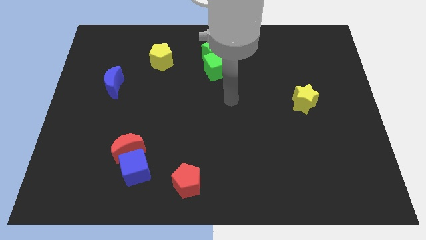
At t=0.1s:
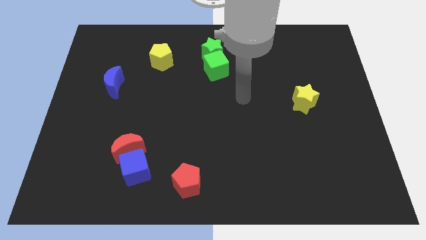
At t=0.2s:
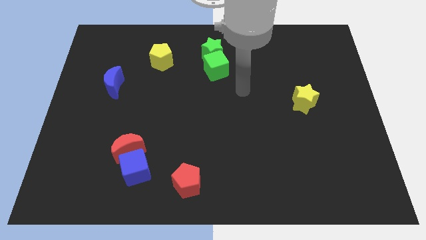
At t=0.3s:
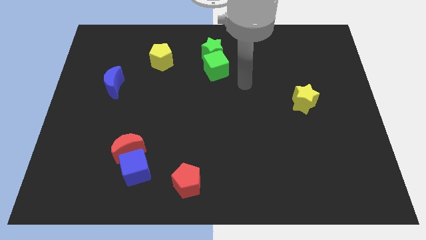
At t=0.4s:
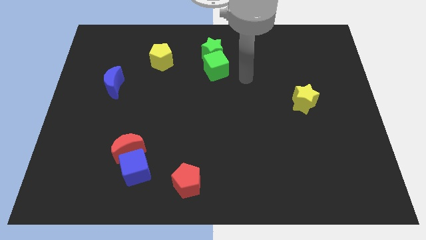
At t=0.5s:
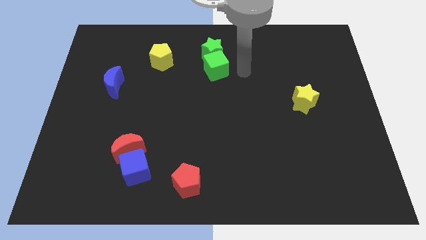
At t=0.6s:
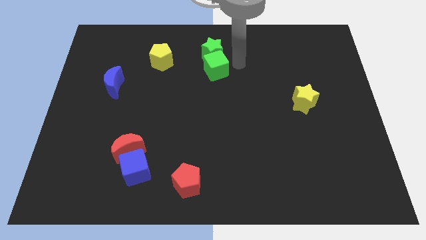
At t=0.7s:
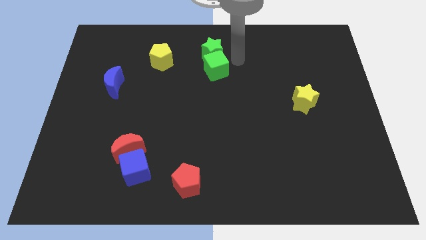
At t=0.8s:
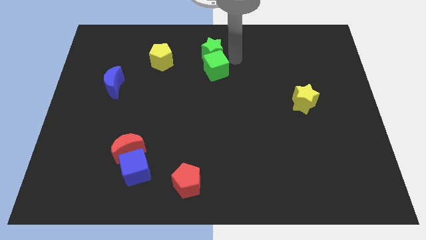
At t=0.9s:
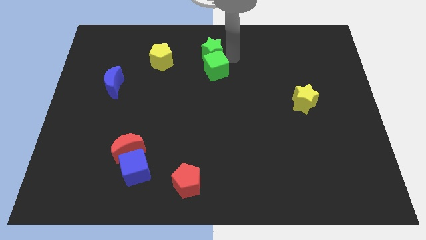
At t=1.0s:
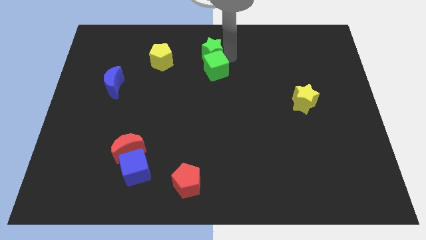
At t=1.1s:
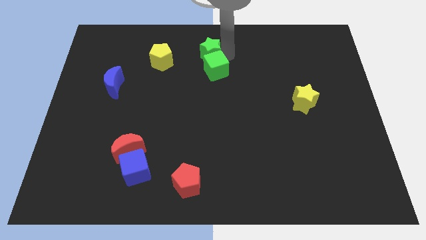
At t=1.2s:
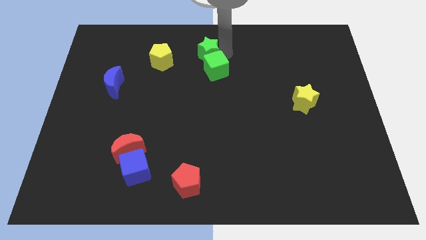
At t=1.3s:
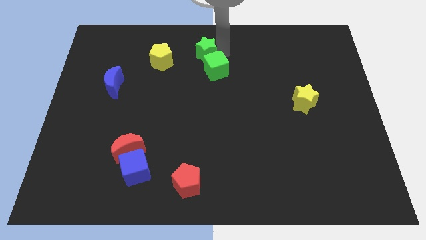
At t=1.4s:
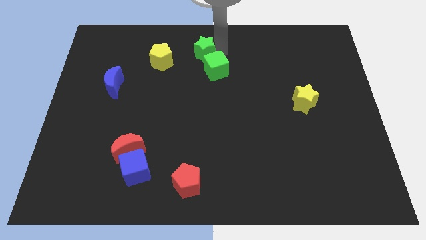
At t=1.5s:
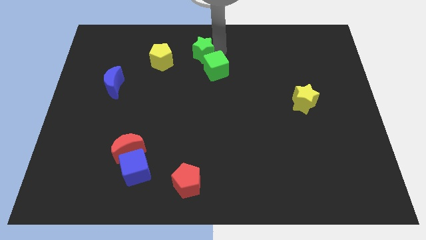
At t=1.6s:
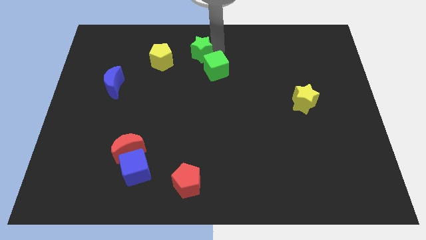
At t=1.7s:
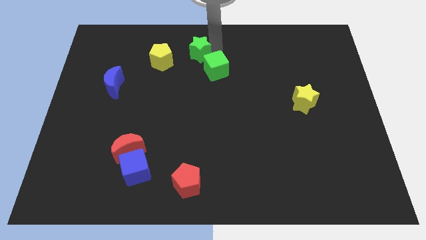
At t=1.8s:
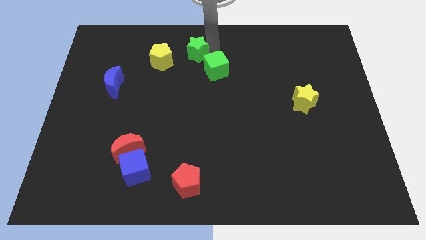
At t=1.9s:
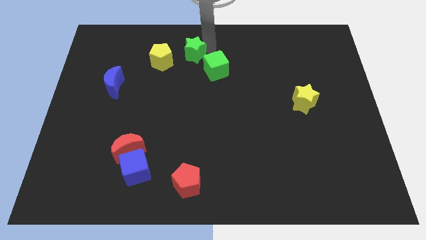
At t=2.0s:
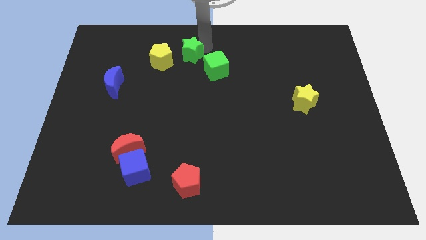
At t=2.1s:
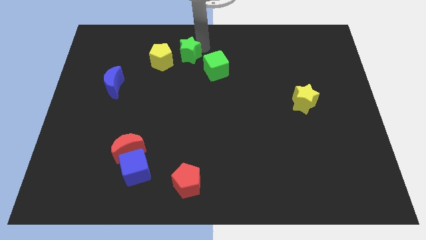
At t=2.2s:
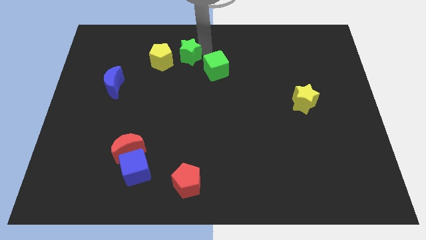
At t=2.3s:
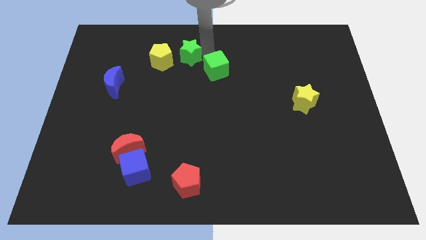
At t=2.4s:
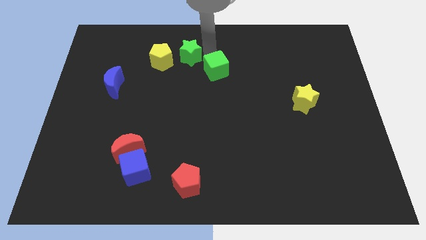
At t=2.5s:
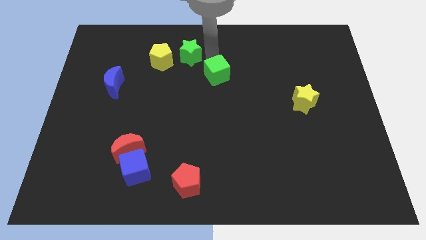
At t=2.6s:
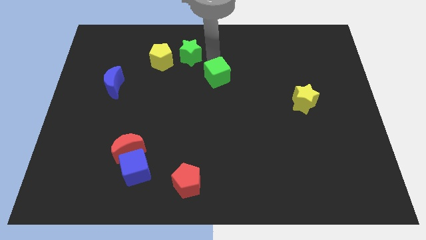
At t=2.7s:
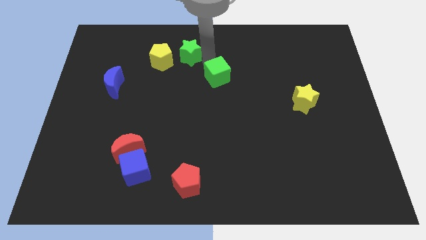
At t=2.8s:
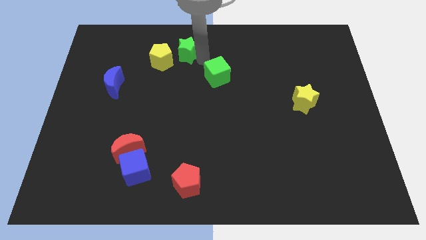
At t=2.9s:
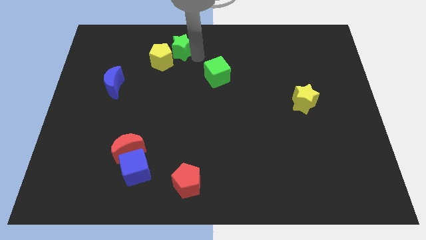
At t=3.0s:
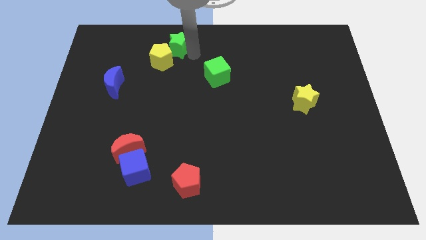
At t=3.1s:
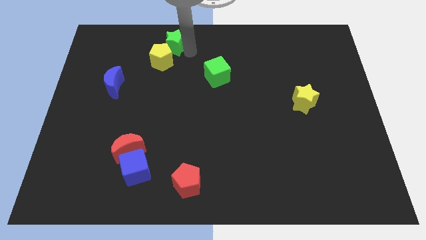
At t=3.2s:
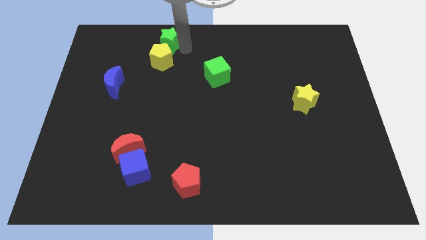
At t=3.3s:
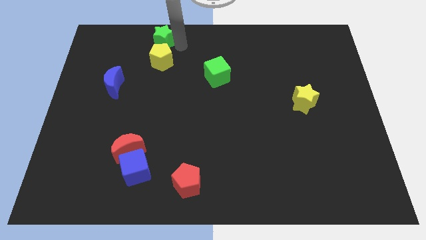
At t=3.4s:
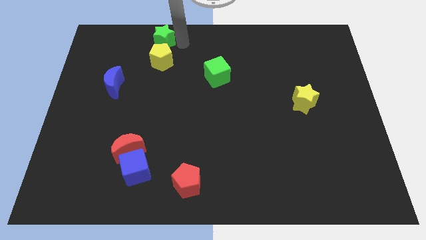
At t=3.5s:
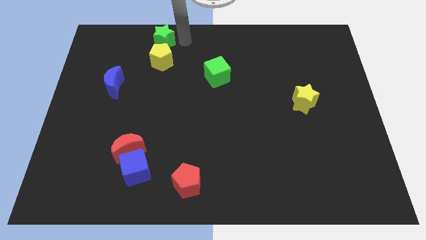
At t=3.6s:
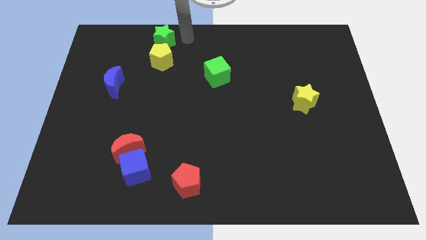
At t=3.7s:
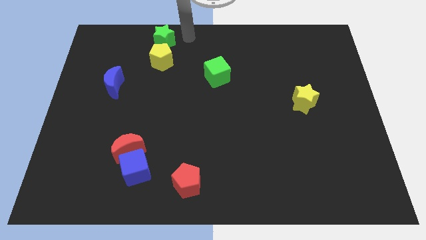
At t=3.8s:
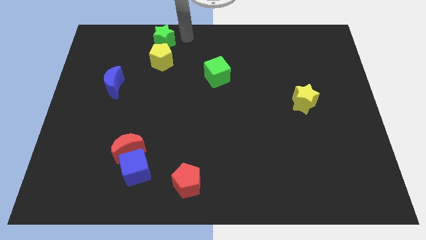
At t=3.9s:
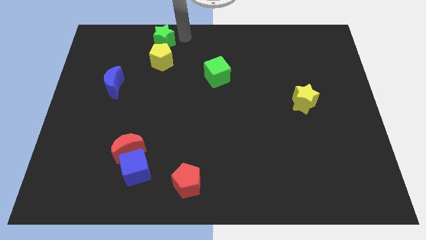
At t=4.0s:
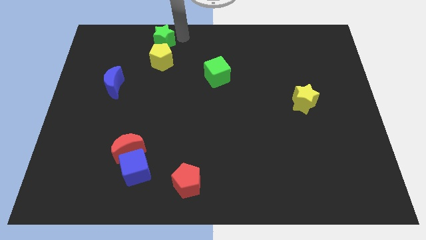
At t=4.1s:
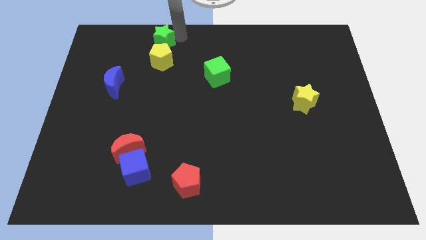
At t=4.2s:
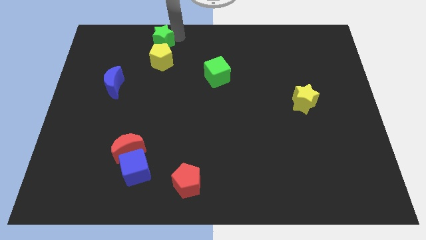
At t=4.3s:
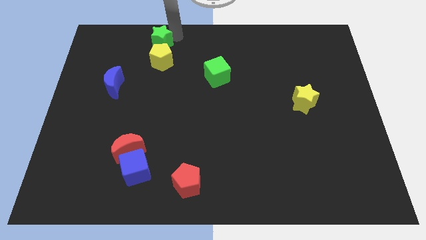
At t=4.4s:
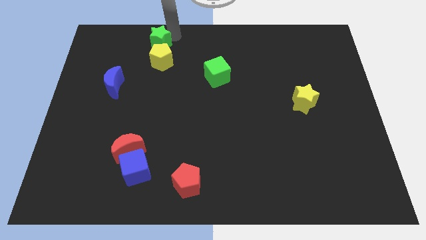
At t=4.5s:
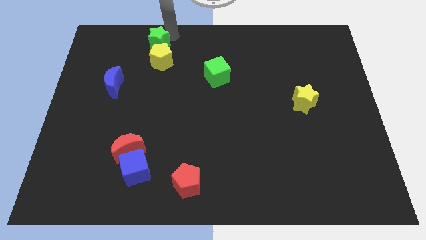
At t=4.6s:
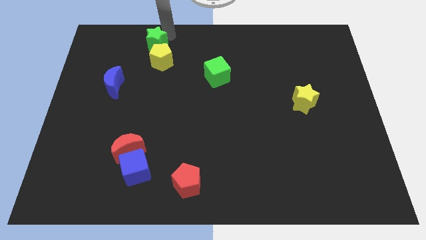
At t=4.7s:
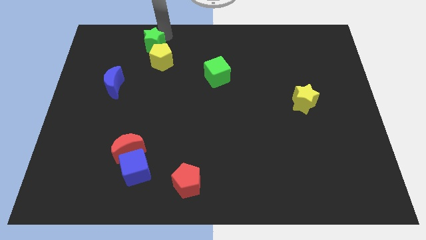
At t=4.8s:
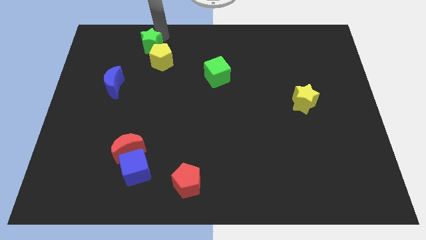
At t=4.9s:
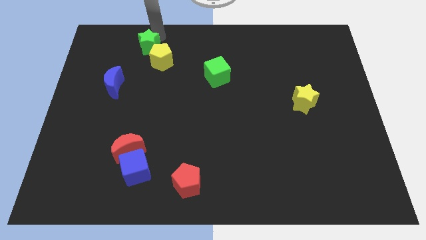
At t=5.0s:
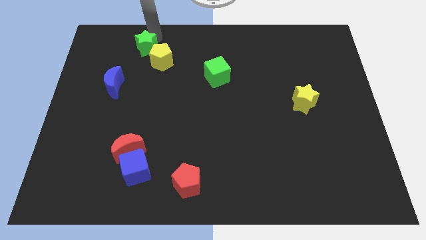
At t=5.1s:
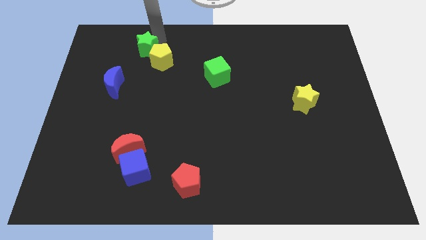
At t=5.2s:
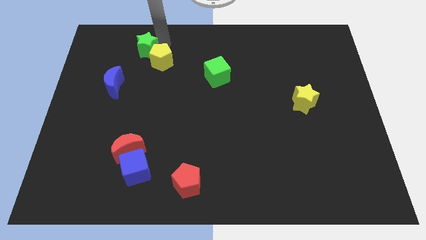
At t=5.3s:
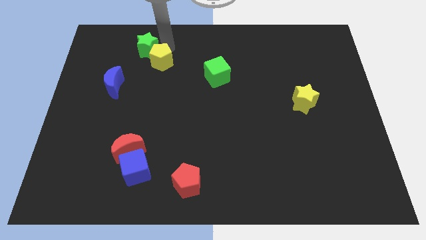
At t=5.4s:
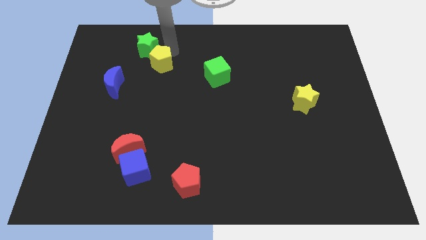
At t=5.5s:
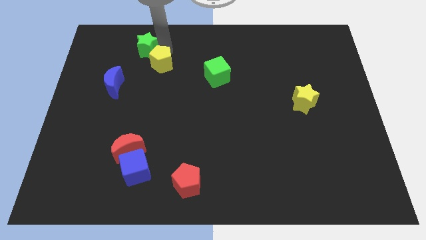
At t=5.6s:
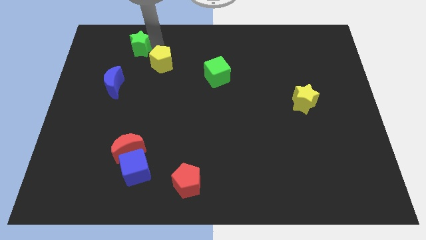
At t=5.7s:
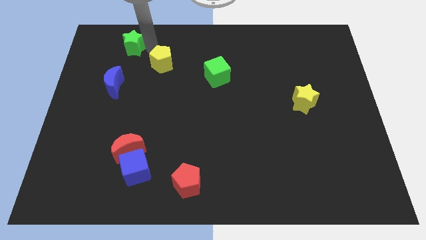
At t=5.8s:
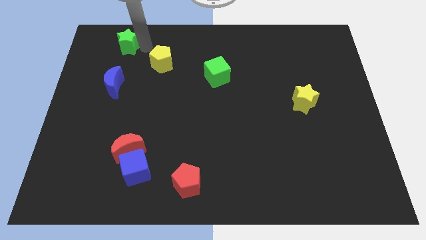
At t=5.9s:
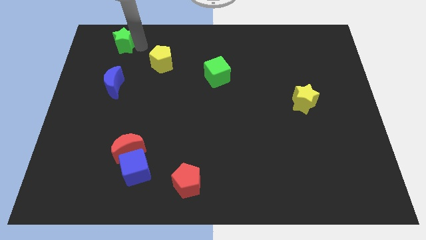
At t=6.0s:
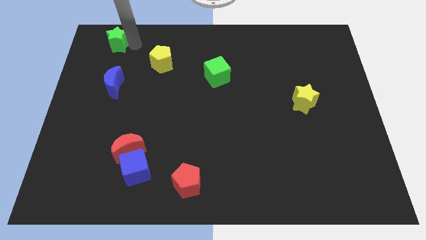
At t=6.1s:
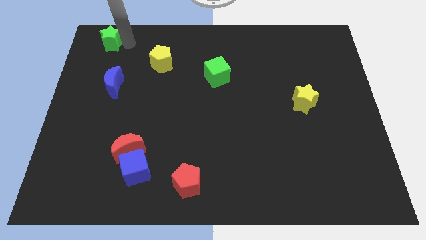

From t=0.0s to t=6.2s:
slide the green star to the top left corner

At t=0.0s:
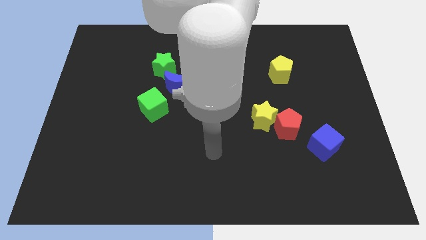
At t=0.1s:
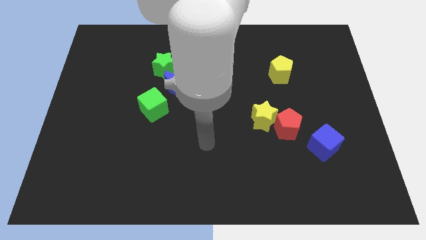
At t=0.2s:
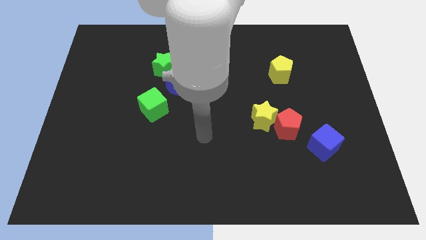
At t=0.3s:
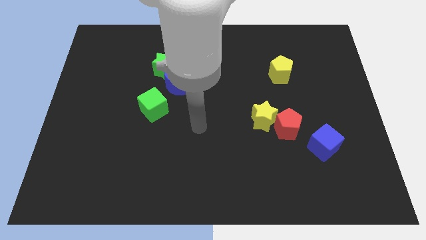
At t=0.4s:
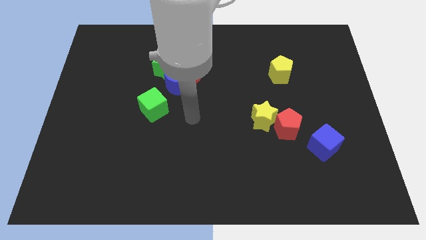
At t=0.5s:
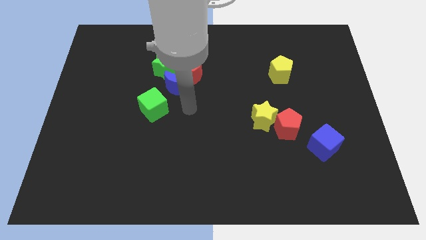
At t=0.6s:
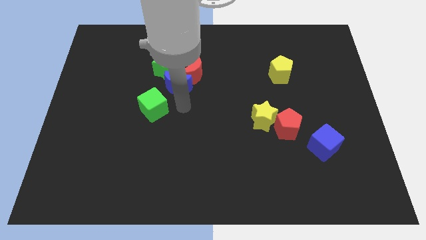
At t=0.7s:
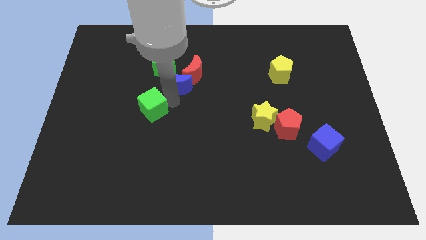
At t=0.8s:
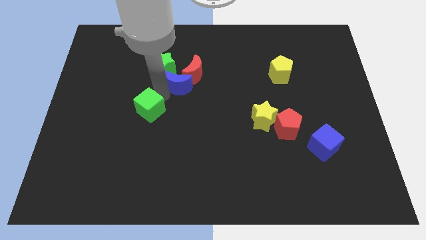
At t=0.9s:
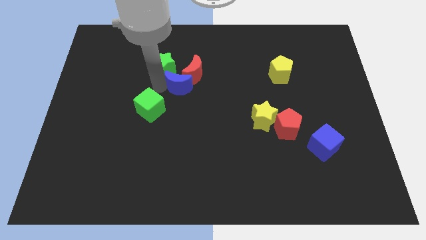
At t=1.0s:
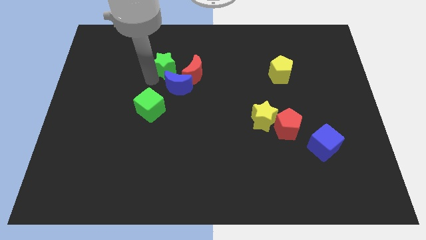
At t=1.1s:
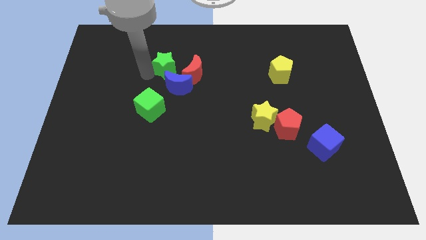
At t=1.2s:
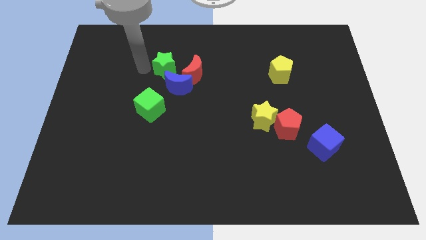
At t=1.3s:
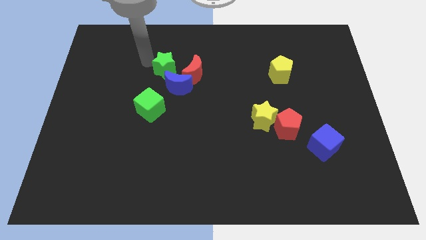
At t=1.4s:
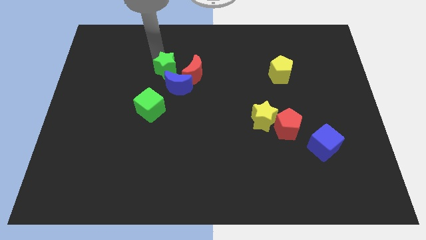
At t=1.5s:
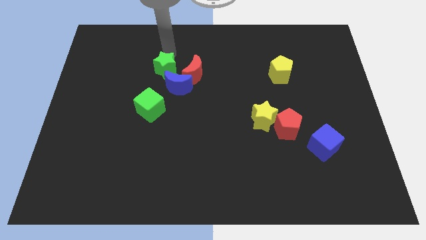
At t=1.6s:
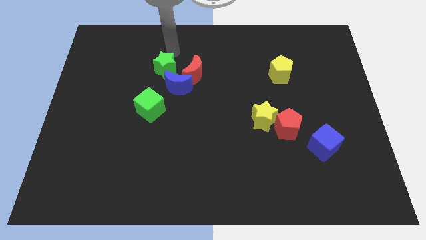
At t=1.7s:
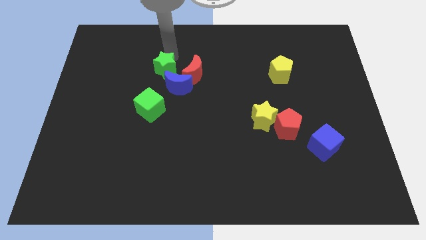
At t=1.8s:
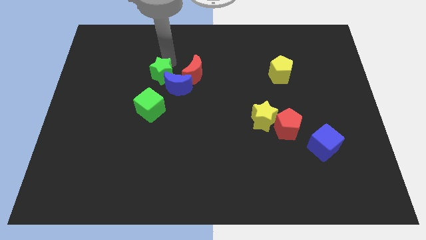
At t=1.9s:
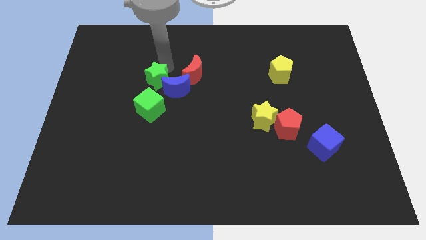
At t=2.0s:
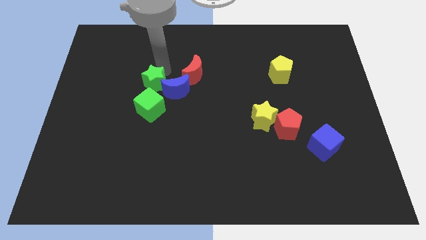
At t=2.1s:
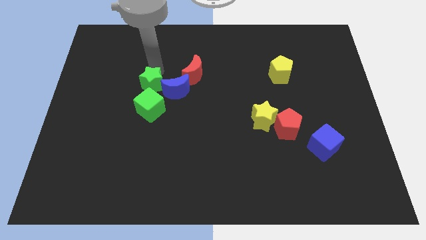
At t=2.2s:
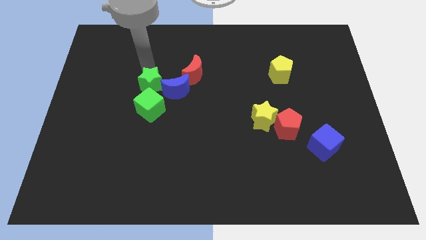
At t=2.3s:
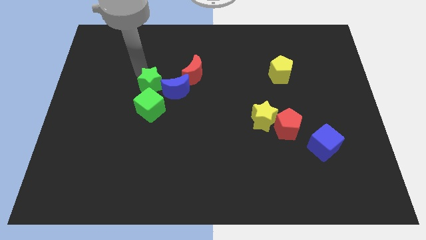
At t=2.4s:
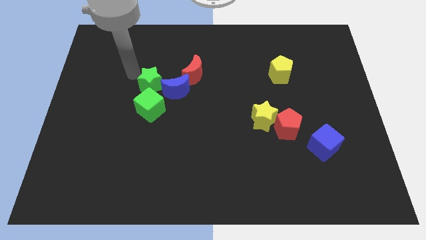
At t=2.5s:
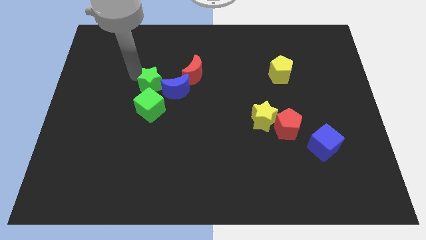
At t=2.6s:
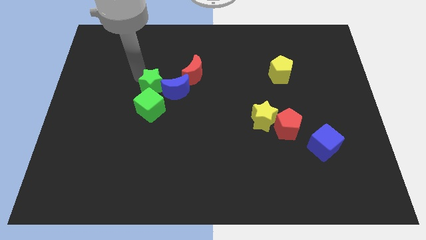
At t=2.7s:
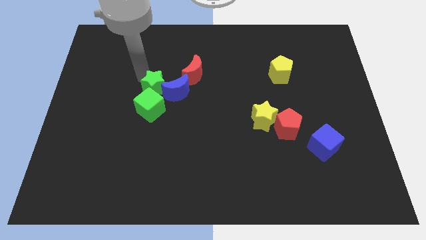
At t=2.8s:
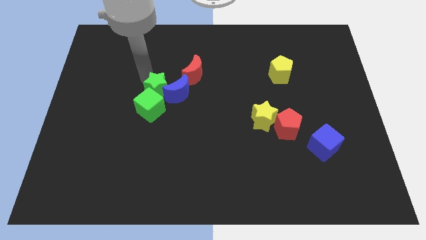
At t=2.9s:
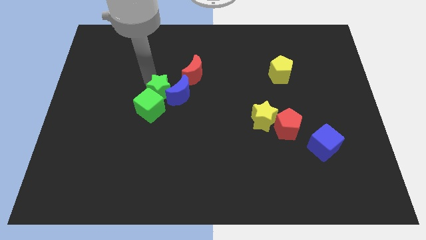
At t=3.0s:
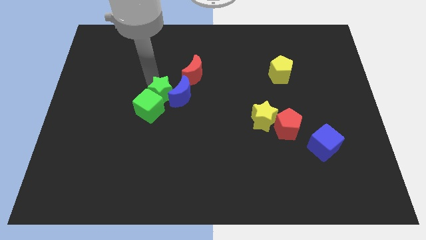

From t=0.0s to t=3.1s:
move the green star to the middle
